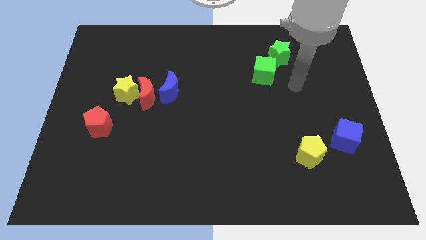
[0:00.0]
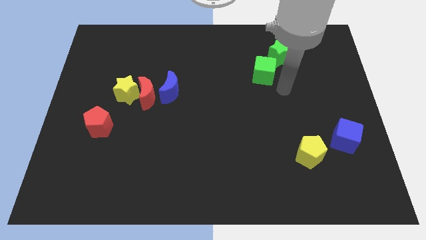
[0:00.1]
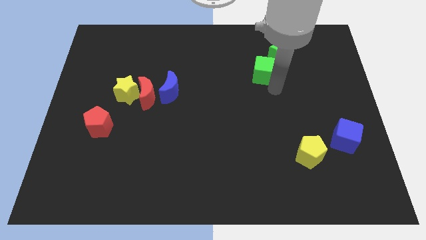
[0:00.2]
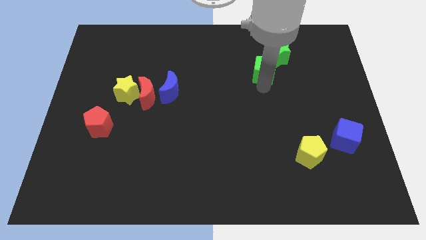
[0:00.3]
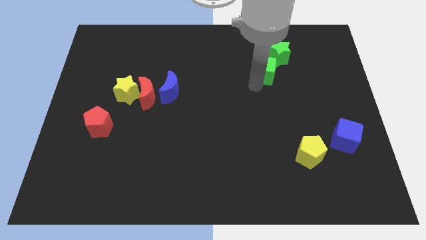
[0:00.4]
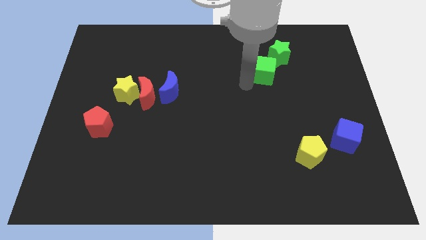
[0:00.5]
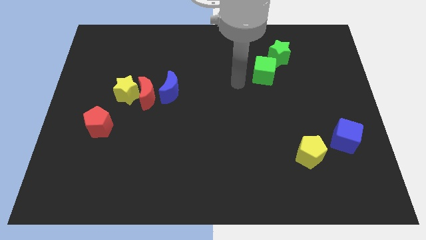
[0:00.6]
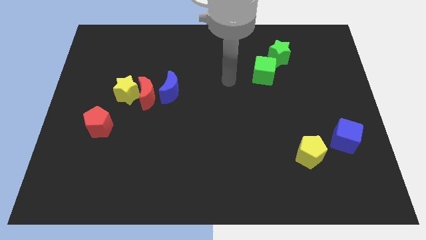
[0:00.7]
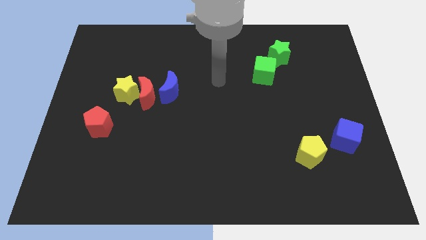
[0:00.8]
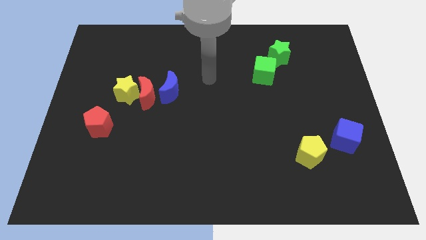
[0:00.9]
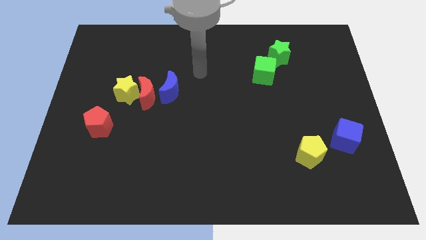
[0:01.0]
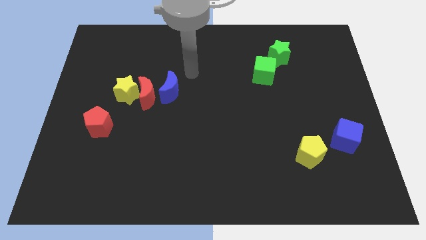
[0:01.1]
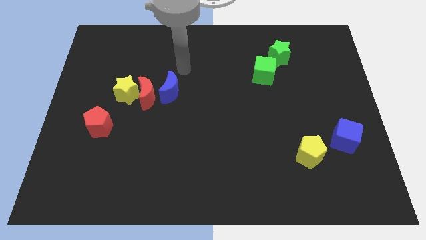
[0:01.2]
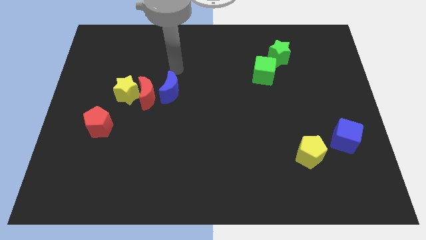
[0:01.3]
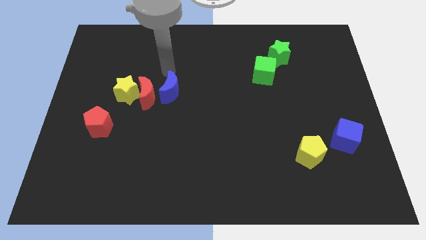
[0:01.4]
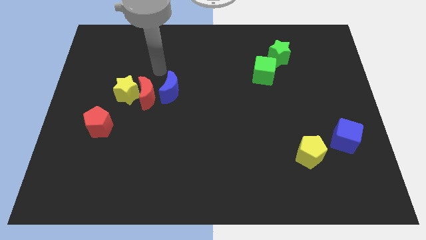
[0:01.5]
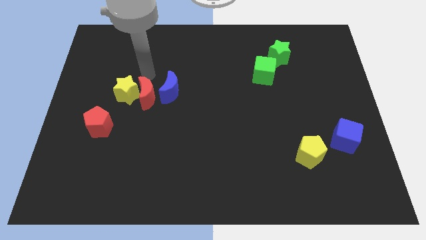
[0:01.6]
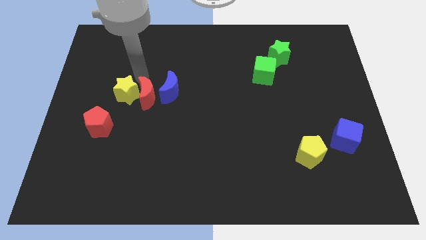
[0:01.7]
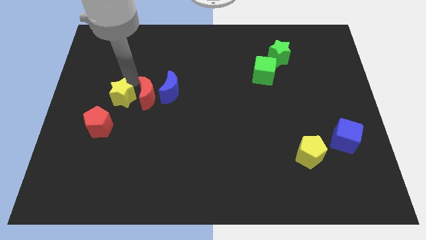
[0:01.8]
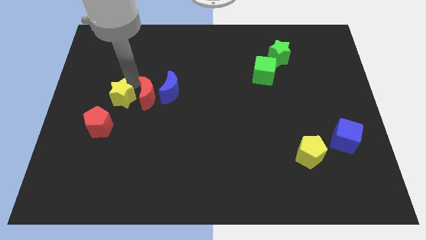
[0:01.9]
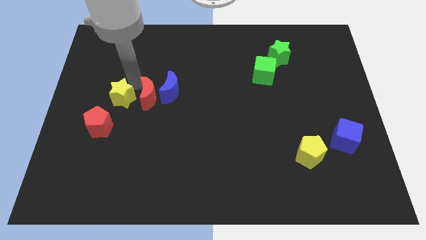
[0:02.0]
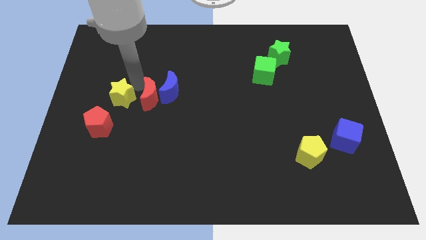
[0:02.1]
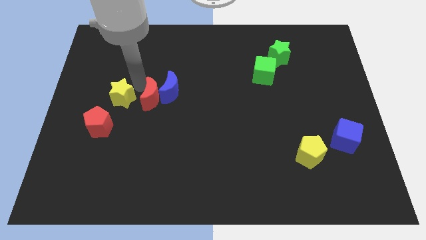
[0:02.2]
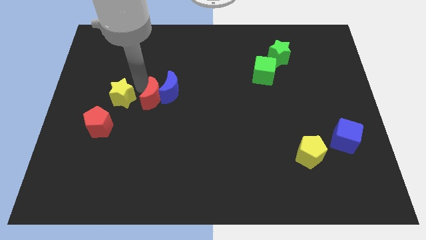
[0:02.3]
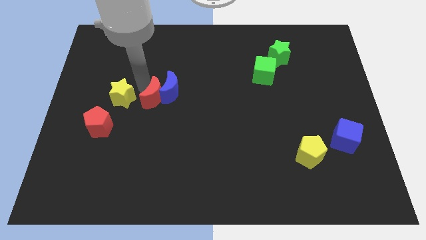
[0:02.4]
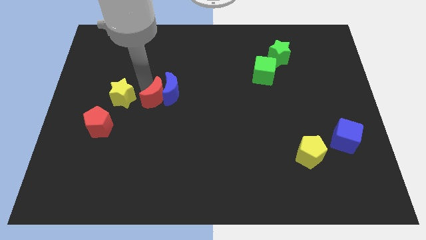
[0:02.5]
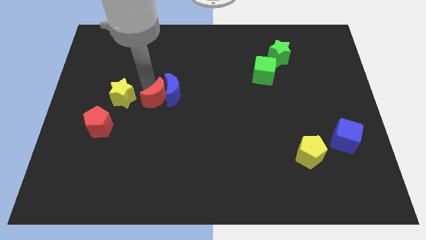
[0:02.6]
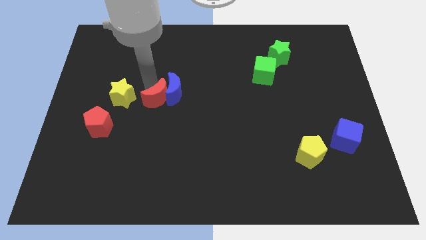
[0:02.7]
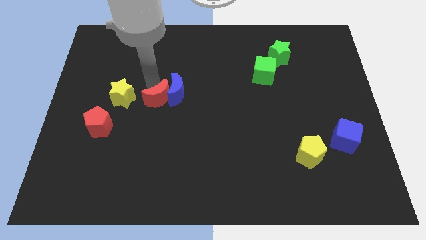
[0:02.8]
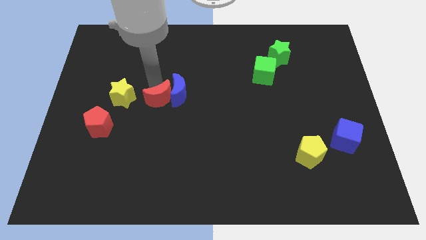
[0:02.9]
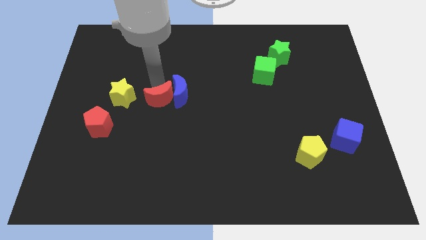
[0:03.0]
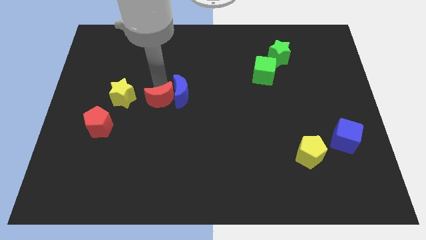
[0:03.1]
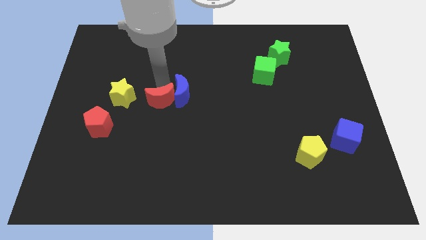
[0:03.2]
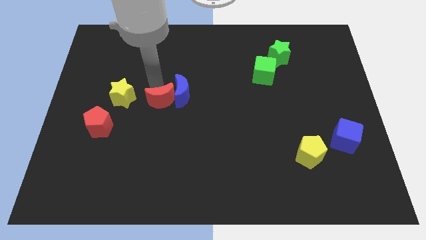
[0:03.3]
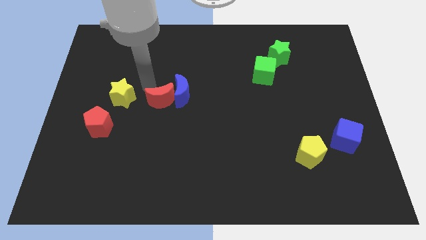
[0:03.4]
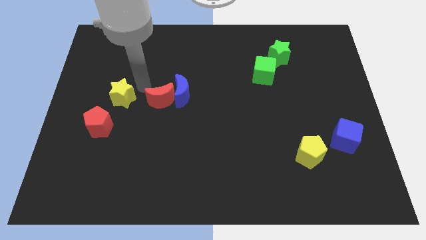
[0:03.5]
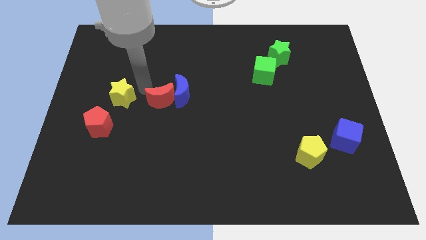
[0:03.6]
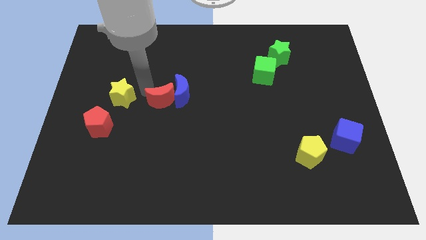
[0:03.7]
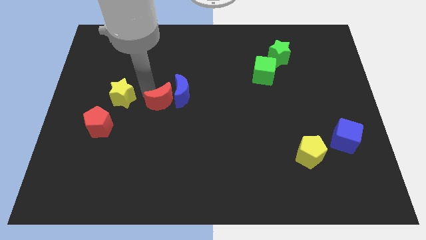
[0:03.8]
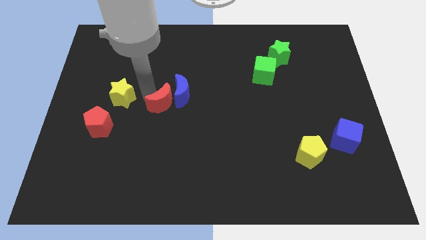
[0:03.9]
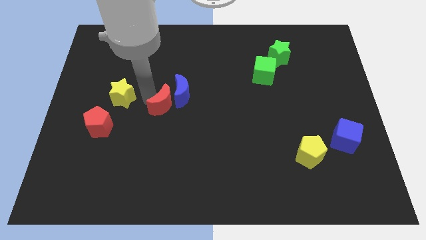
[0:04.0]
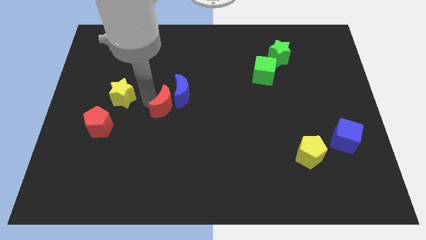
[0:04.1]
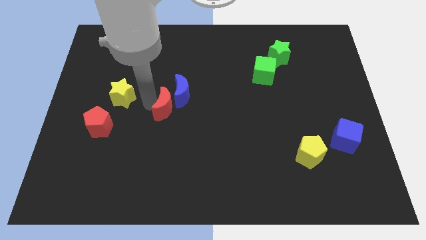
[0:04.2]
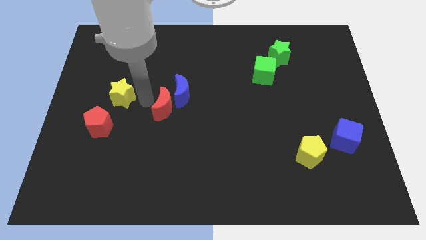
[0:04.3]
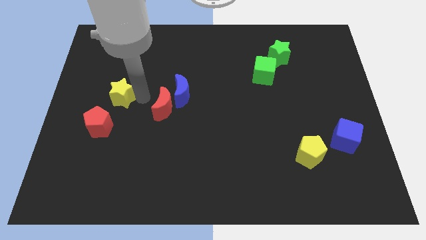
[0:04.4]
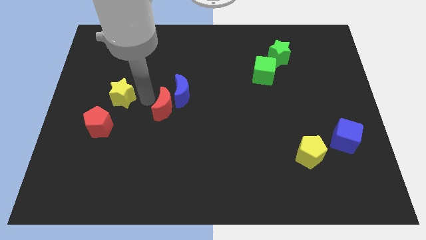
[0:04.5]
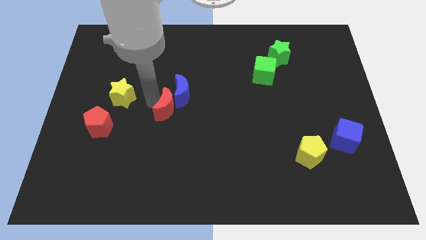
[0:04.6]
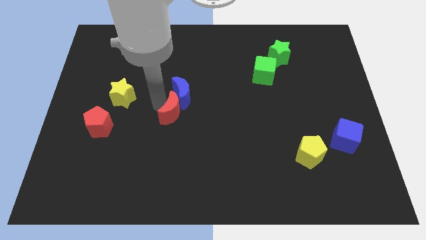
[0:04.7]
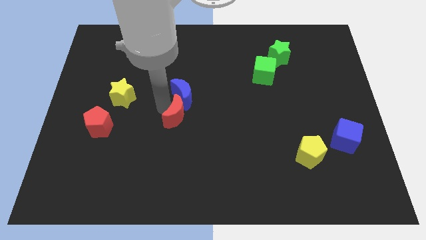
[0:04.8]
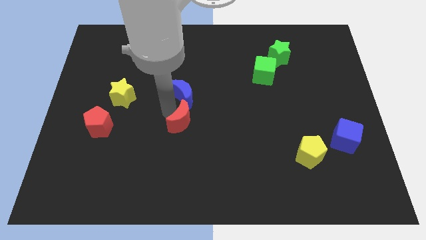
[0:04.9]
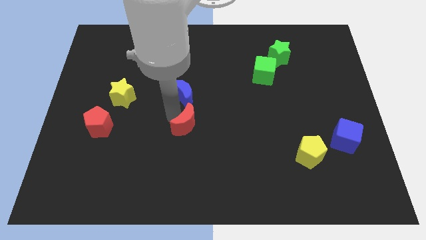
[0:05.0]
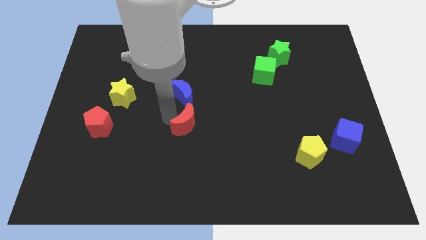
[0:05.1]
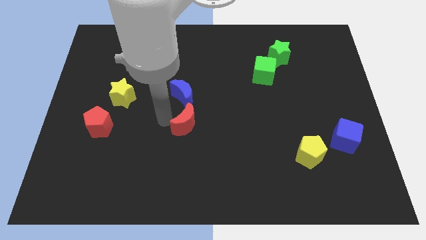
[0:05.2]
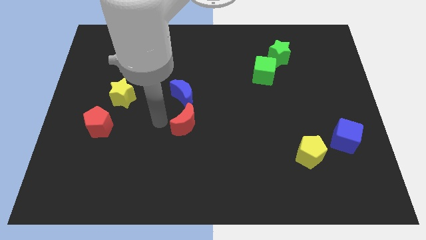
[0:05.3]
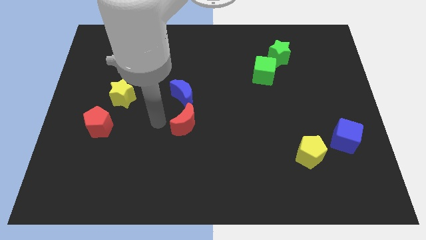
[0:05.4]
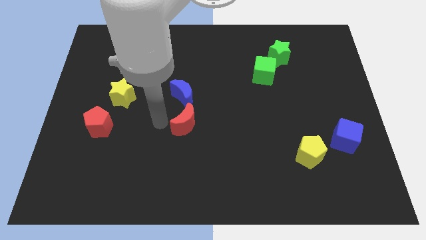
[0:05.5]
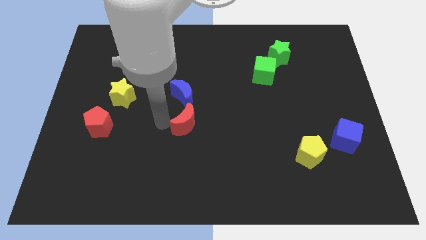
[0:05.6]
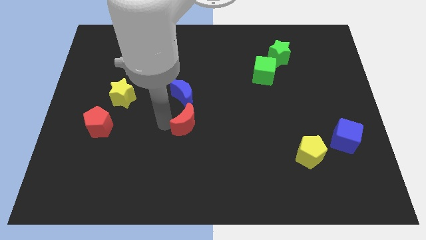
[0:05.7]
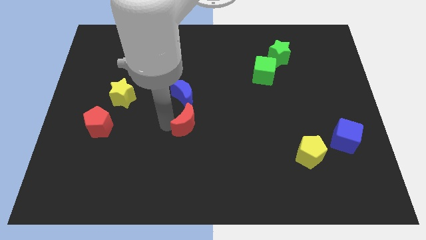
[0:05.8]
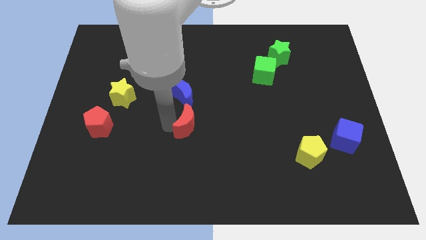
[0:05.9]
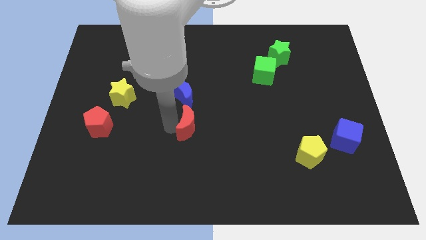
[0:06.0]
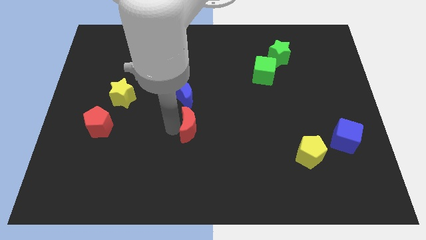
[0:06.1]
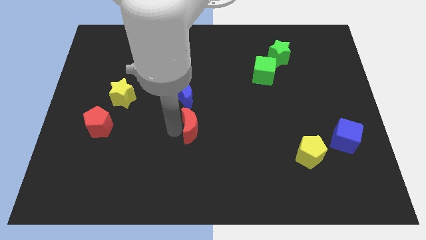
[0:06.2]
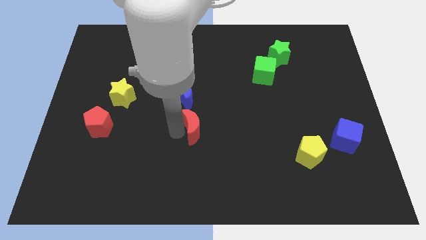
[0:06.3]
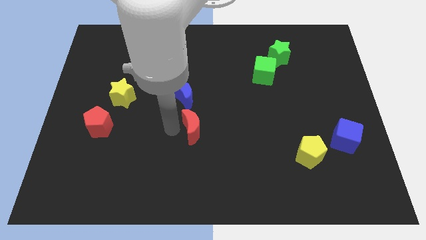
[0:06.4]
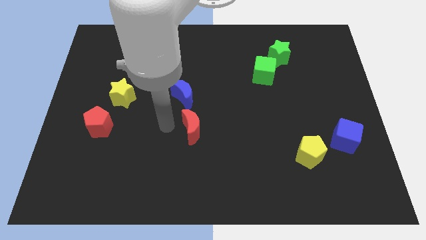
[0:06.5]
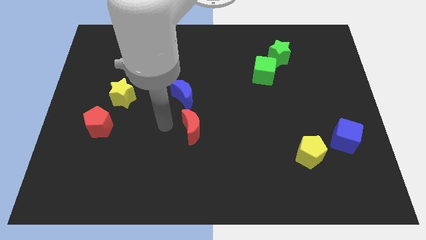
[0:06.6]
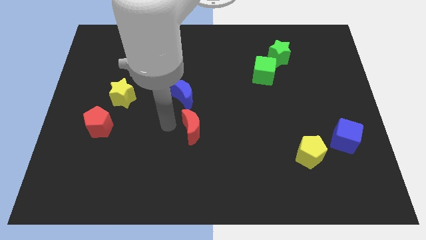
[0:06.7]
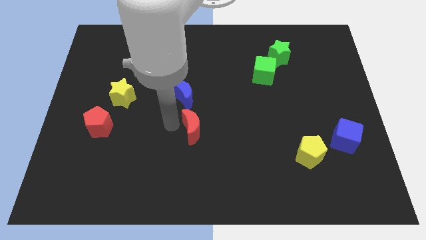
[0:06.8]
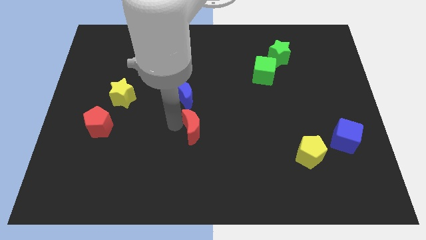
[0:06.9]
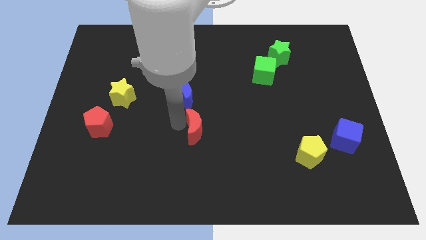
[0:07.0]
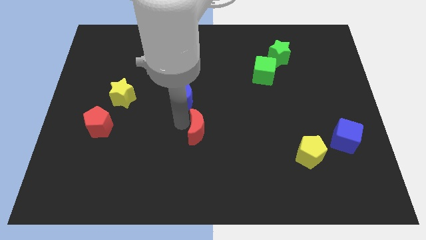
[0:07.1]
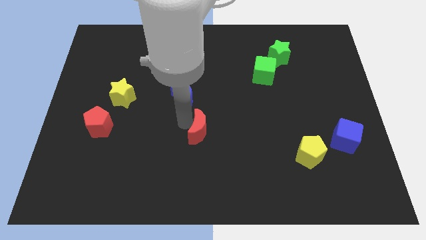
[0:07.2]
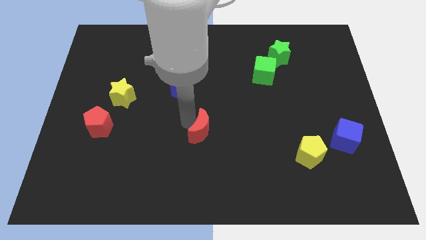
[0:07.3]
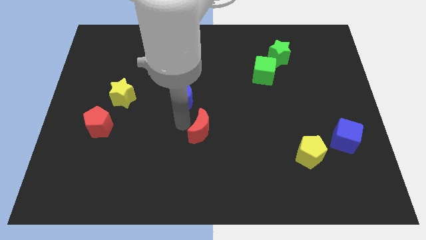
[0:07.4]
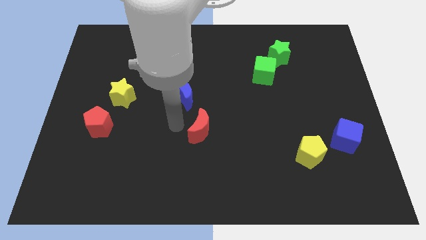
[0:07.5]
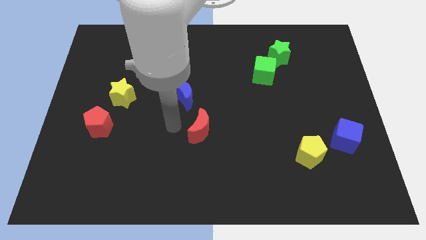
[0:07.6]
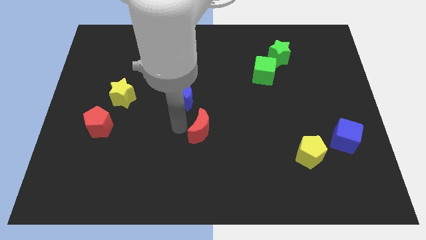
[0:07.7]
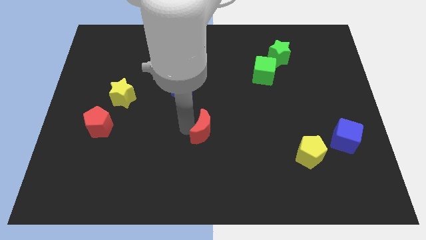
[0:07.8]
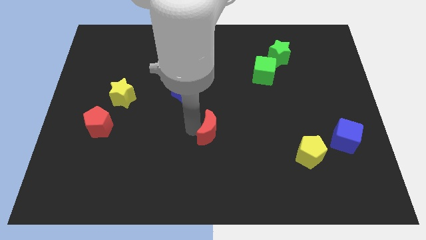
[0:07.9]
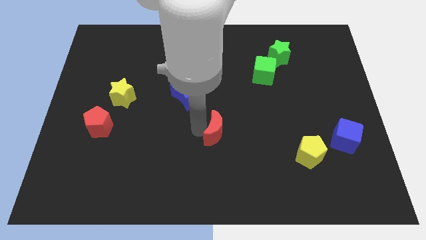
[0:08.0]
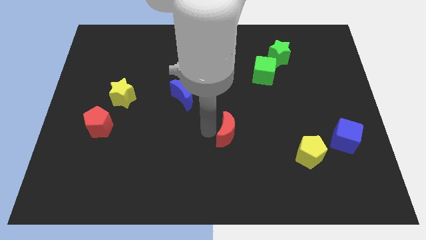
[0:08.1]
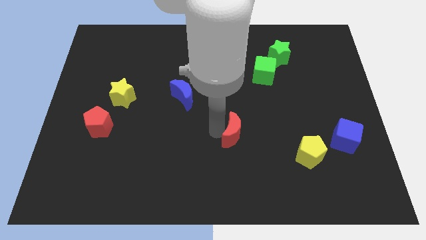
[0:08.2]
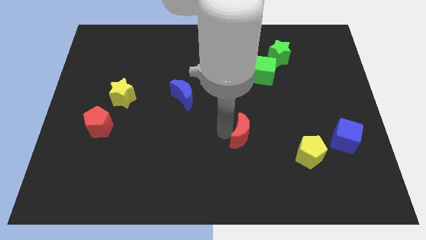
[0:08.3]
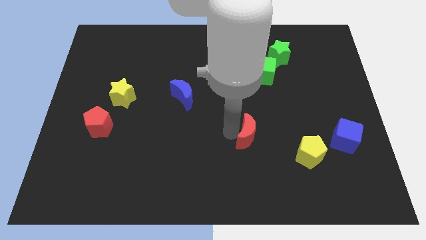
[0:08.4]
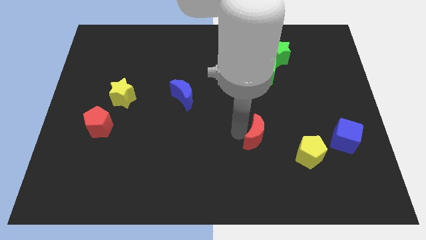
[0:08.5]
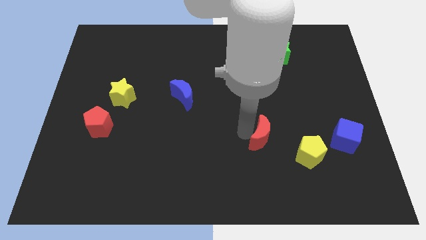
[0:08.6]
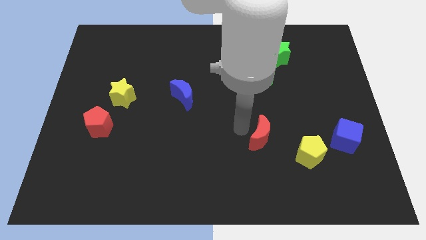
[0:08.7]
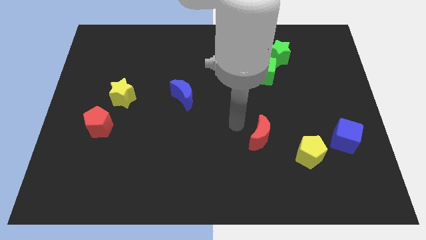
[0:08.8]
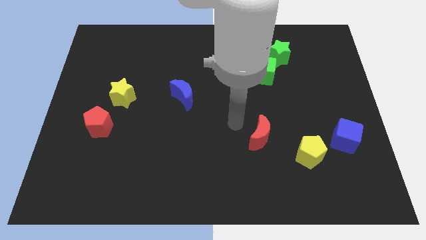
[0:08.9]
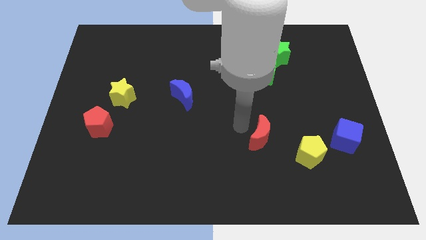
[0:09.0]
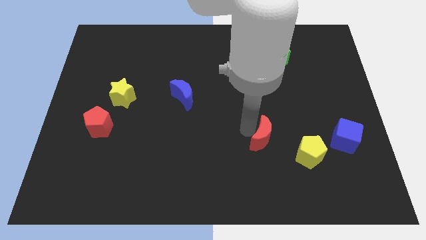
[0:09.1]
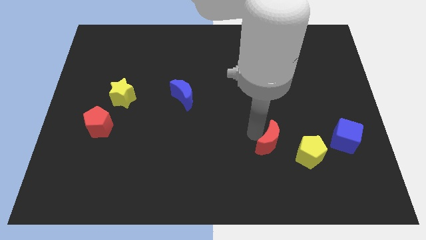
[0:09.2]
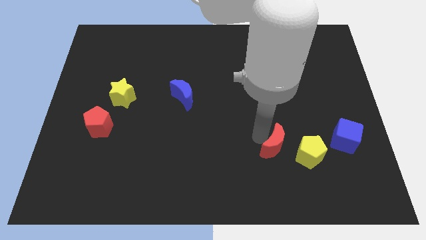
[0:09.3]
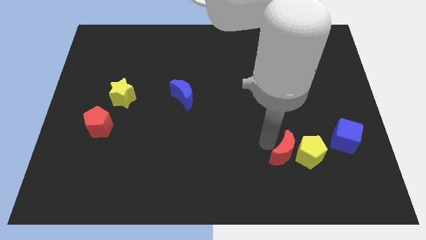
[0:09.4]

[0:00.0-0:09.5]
put the red moon close to the yellow pentagon
